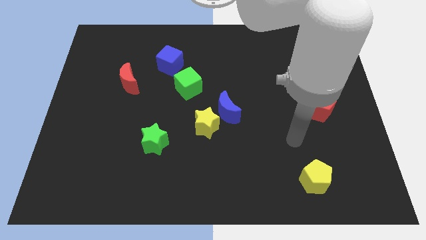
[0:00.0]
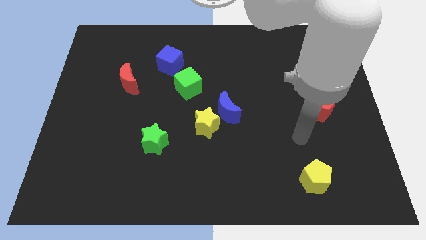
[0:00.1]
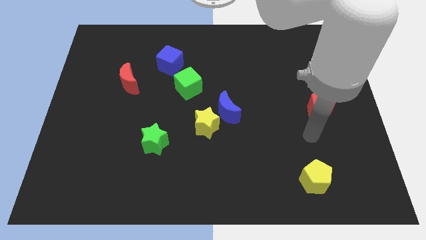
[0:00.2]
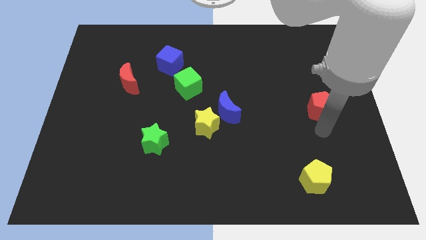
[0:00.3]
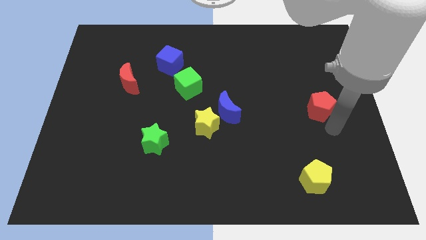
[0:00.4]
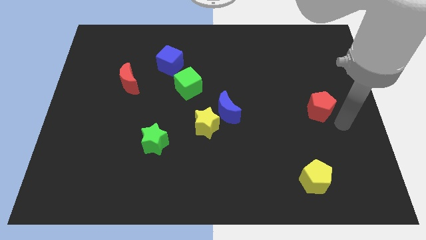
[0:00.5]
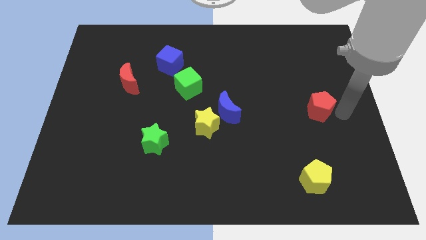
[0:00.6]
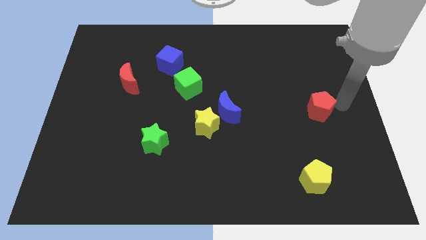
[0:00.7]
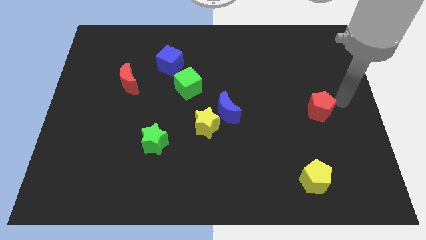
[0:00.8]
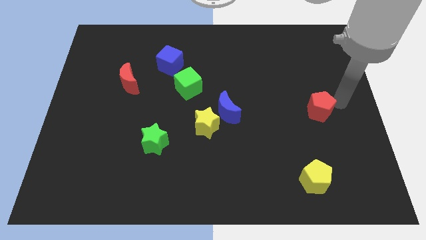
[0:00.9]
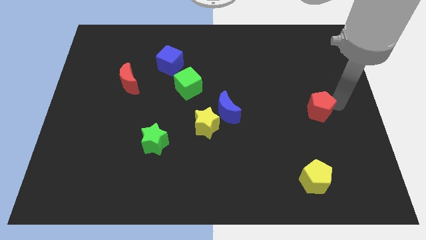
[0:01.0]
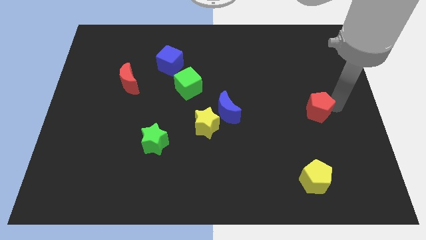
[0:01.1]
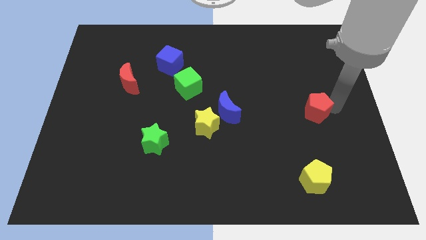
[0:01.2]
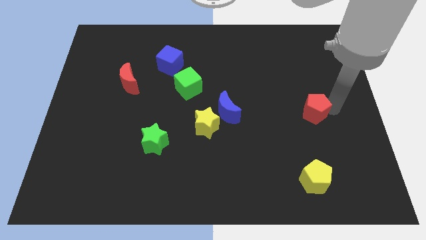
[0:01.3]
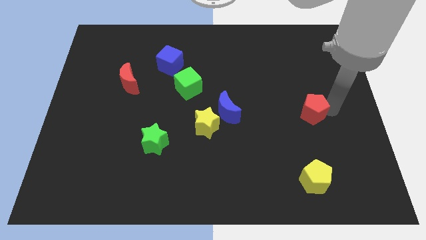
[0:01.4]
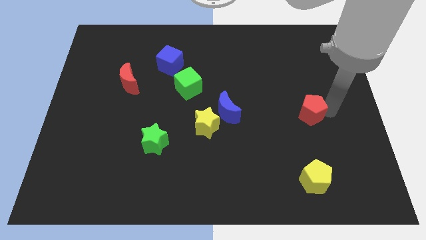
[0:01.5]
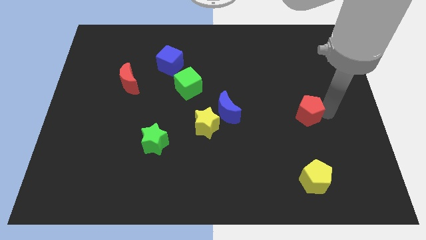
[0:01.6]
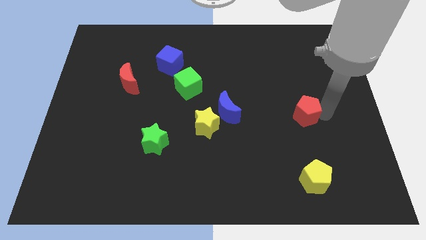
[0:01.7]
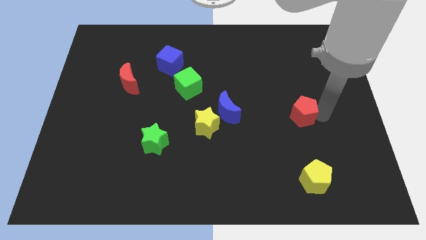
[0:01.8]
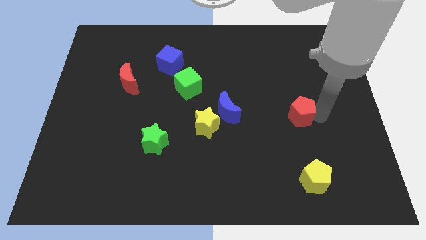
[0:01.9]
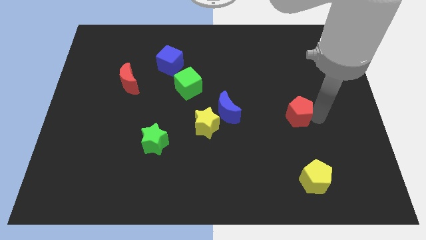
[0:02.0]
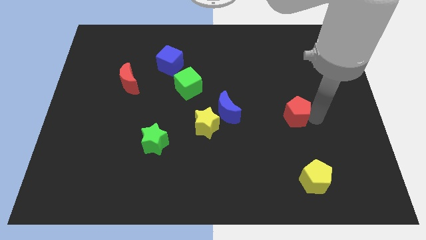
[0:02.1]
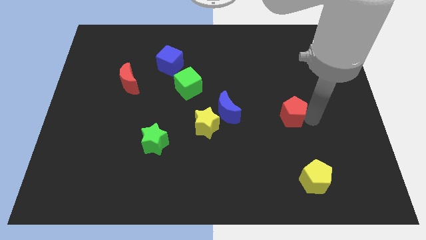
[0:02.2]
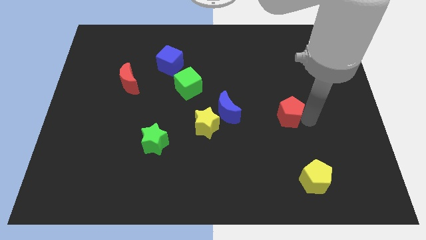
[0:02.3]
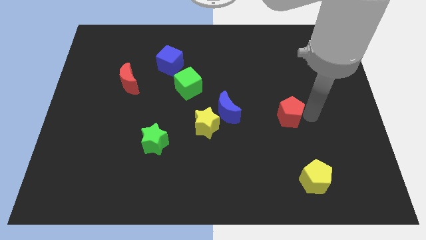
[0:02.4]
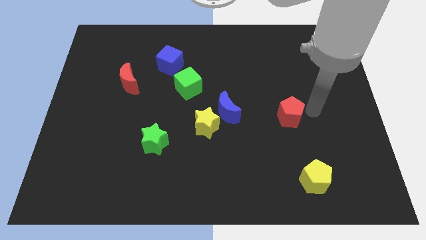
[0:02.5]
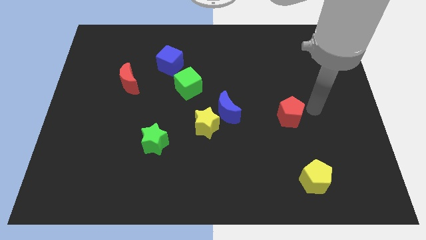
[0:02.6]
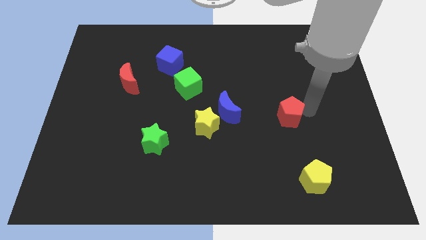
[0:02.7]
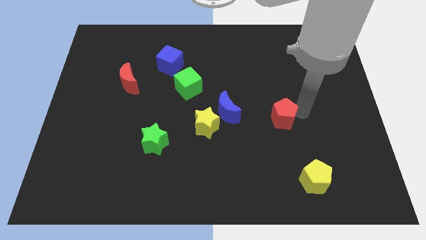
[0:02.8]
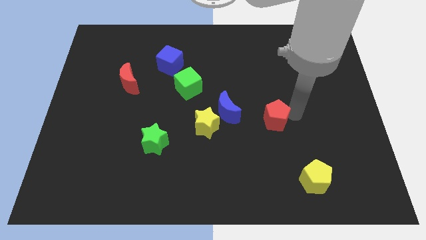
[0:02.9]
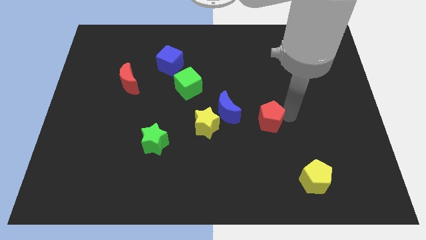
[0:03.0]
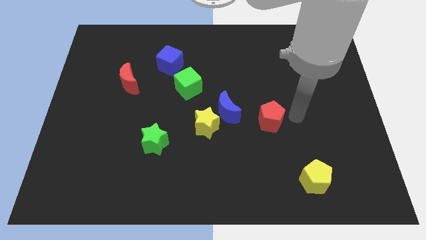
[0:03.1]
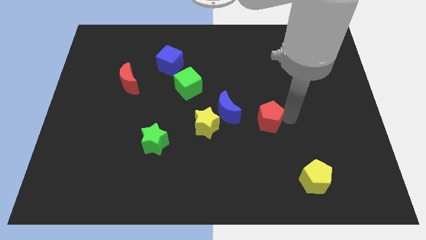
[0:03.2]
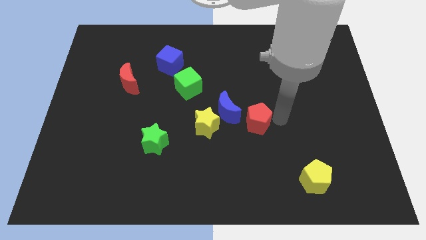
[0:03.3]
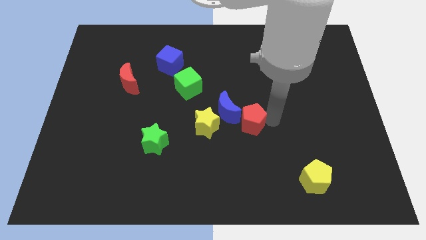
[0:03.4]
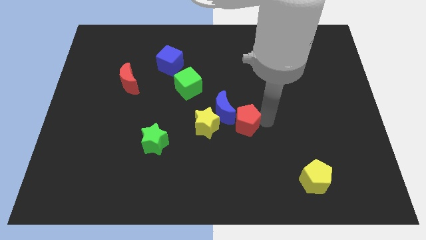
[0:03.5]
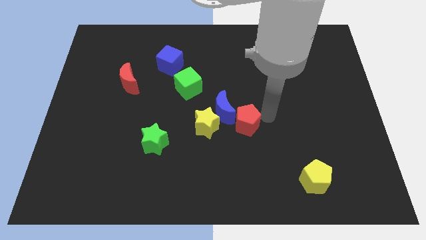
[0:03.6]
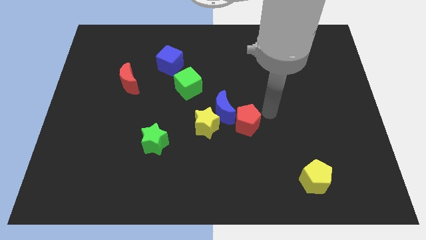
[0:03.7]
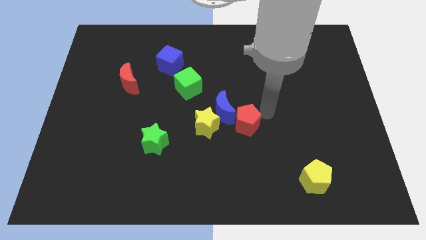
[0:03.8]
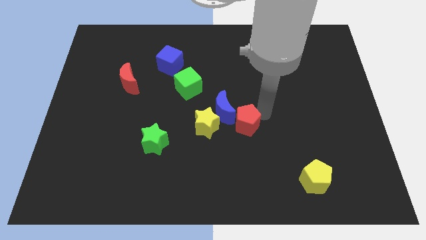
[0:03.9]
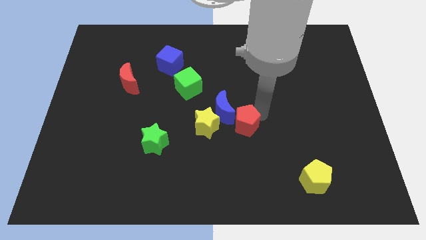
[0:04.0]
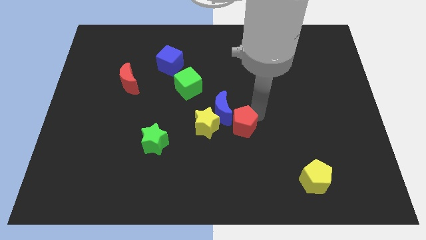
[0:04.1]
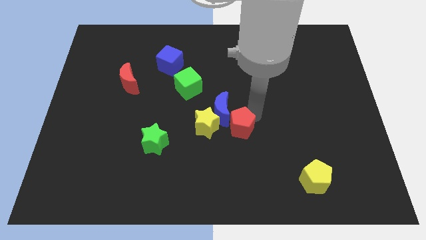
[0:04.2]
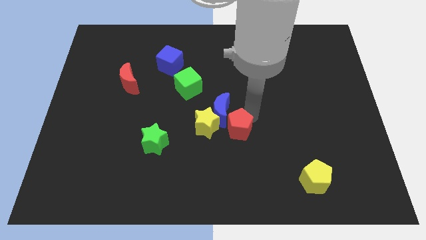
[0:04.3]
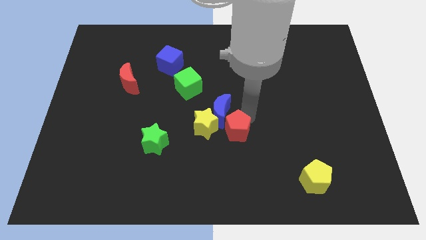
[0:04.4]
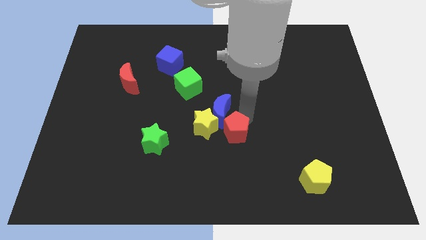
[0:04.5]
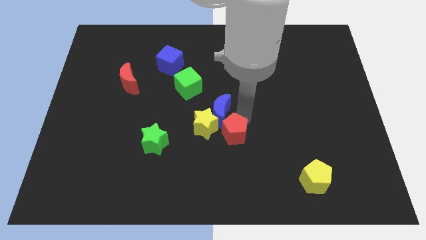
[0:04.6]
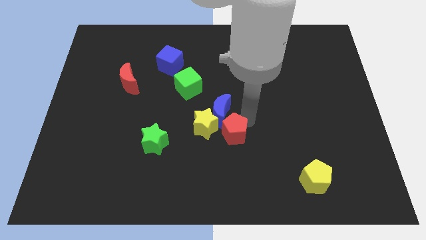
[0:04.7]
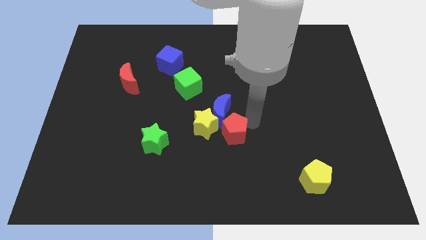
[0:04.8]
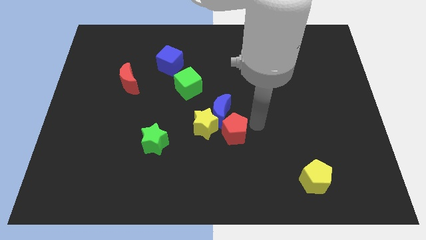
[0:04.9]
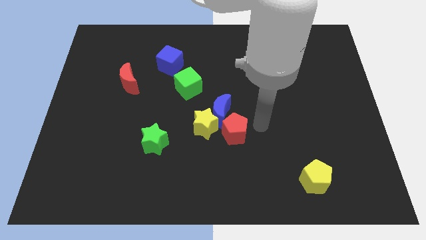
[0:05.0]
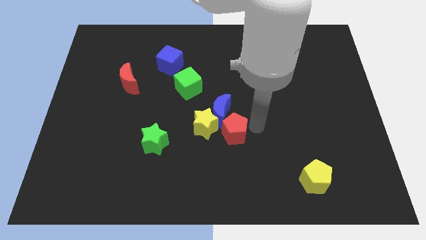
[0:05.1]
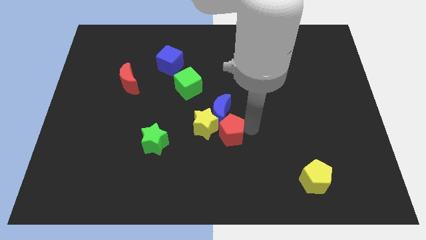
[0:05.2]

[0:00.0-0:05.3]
slide the red pentagon close to the yellow star

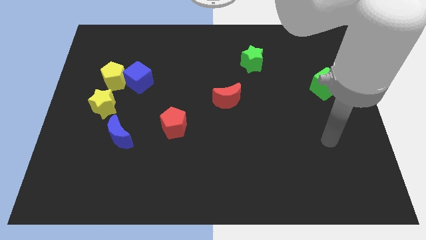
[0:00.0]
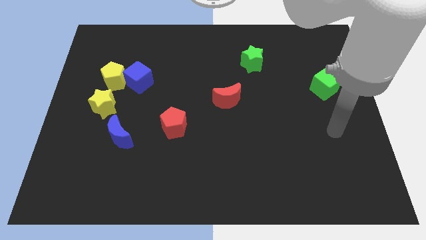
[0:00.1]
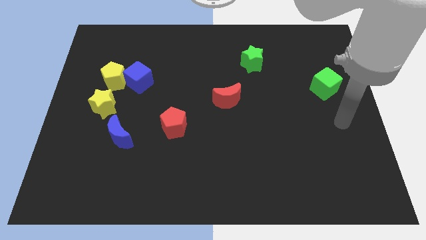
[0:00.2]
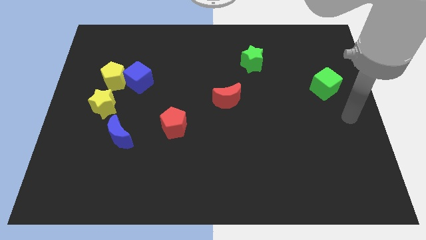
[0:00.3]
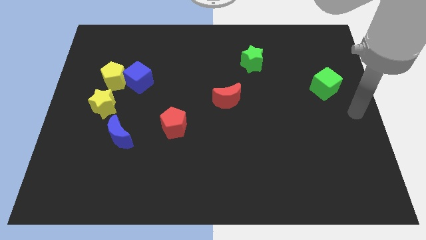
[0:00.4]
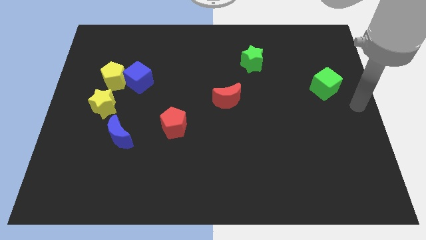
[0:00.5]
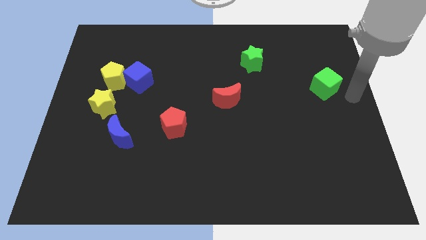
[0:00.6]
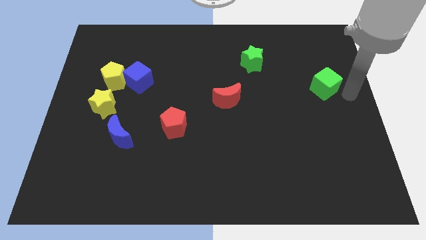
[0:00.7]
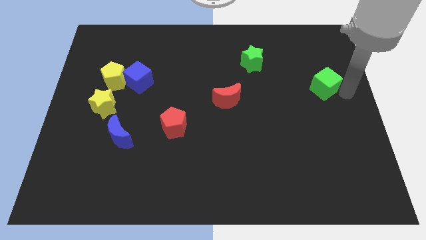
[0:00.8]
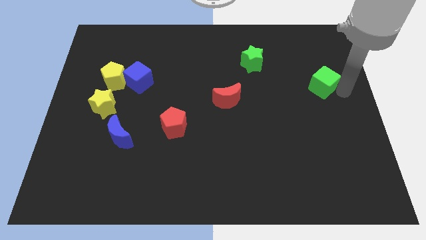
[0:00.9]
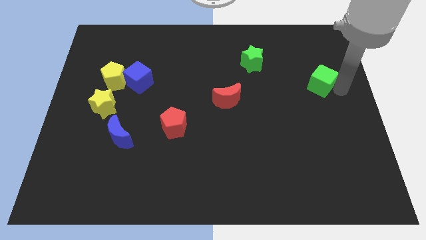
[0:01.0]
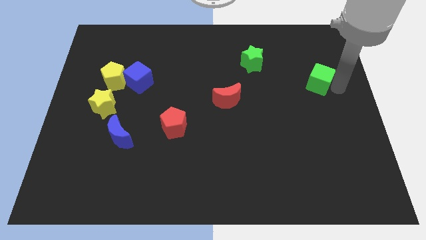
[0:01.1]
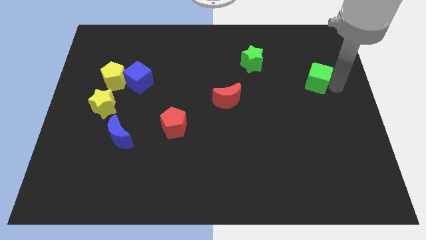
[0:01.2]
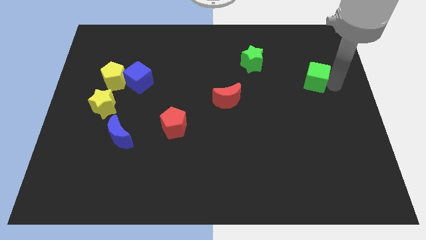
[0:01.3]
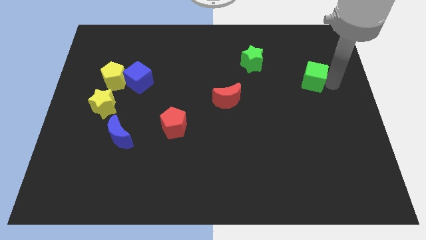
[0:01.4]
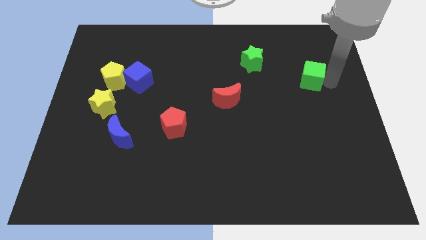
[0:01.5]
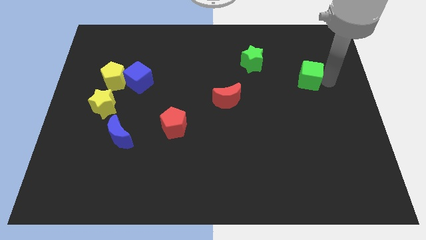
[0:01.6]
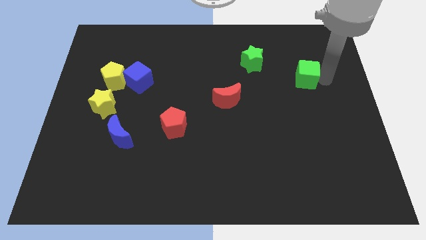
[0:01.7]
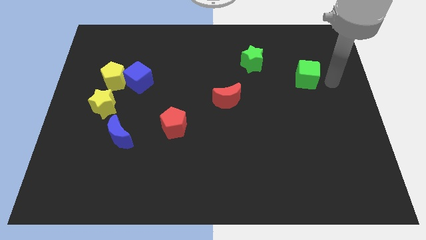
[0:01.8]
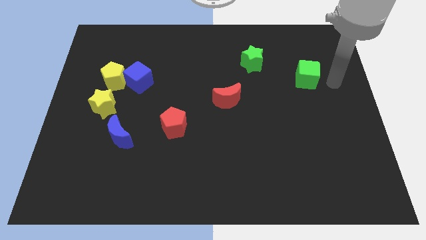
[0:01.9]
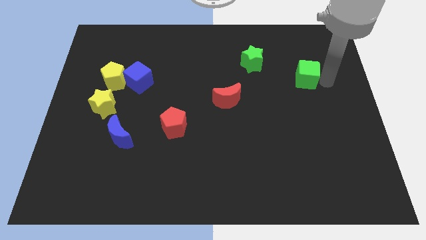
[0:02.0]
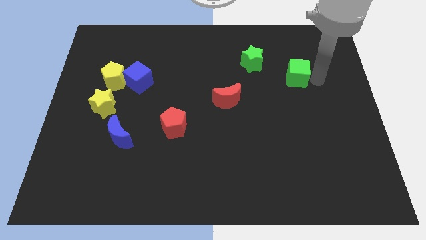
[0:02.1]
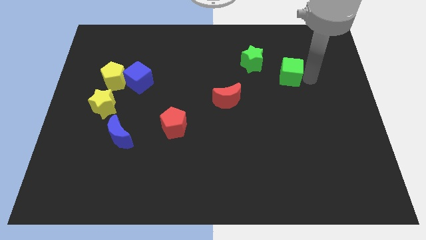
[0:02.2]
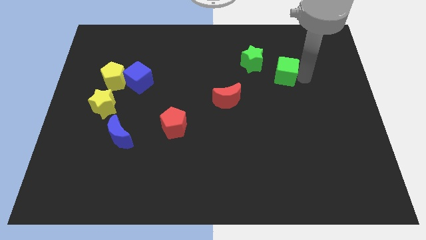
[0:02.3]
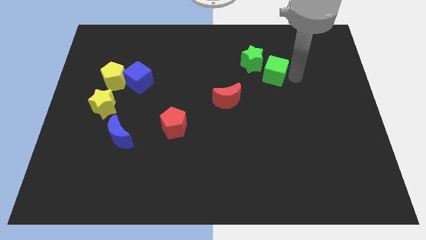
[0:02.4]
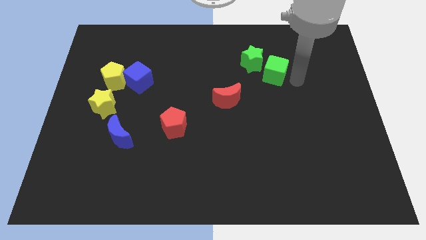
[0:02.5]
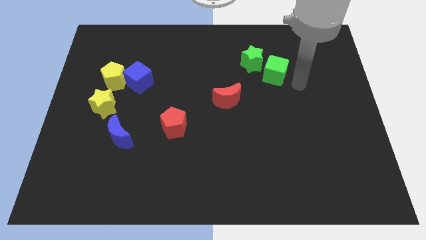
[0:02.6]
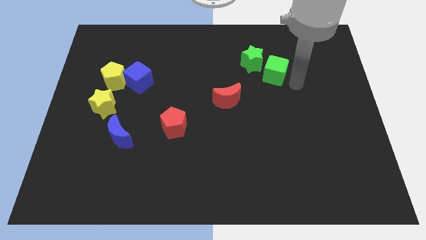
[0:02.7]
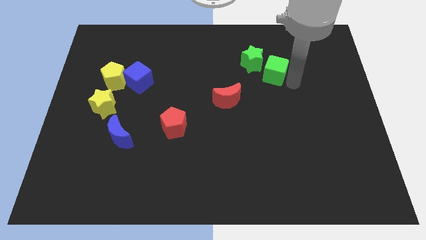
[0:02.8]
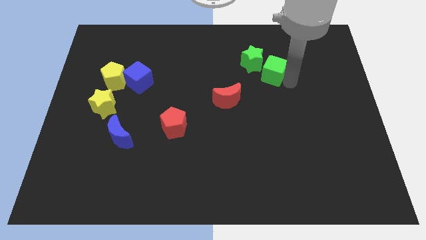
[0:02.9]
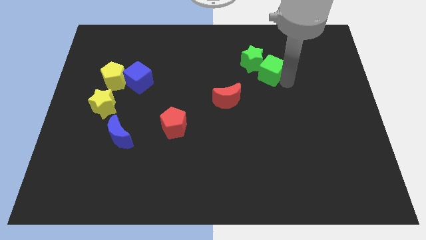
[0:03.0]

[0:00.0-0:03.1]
push the green cube close to the green star
